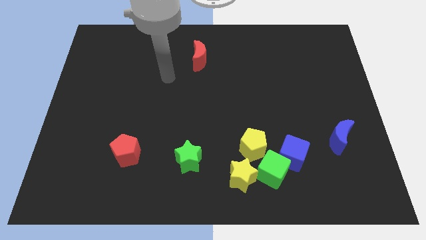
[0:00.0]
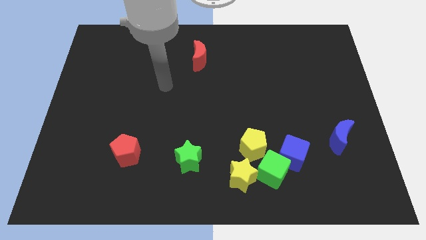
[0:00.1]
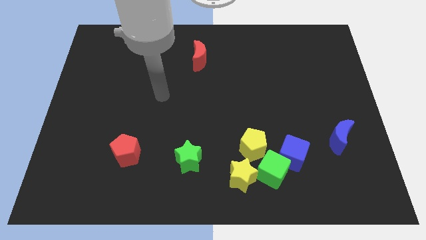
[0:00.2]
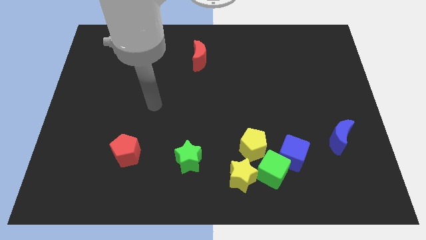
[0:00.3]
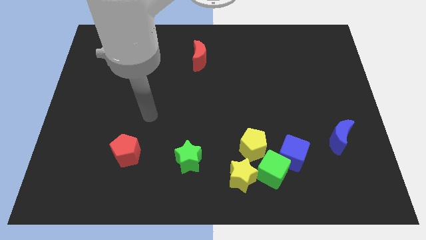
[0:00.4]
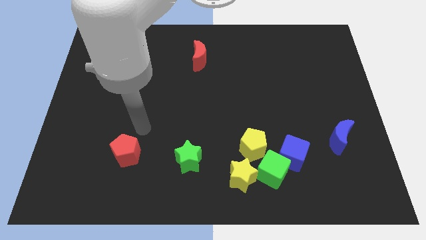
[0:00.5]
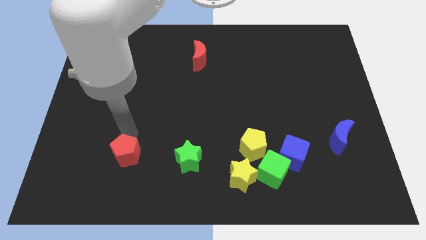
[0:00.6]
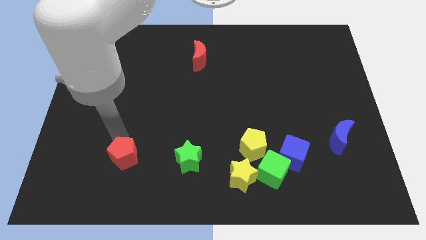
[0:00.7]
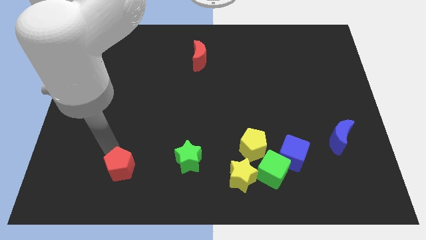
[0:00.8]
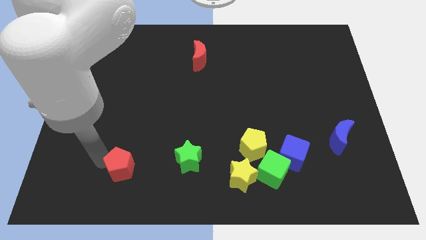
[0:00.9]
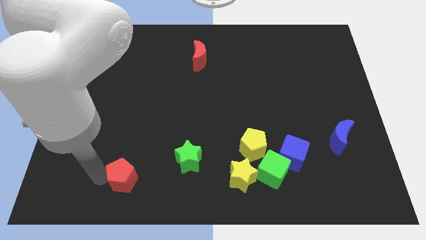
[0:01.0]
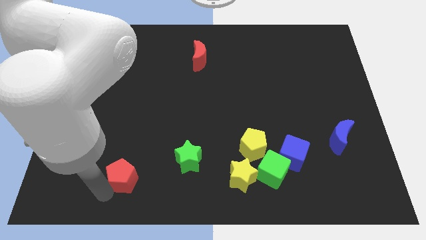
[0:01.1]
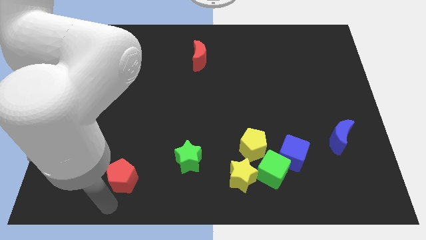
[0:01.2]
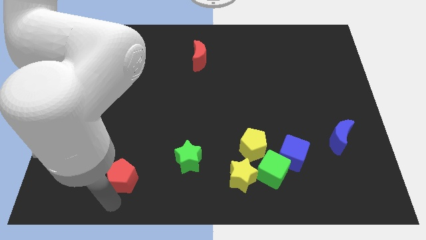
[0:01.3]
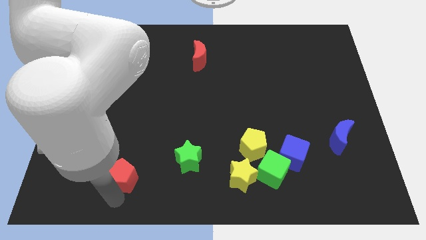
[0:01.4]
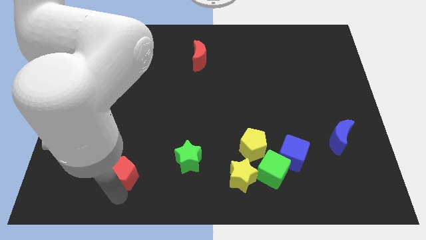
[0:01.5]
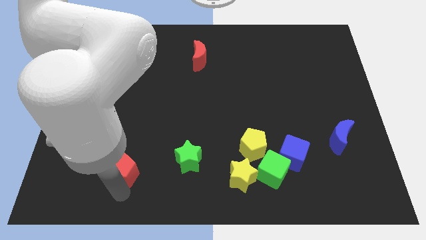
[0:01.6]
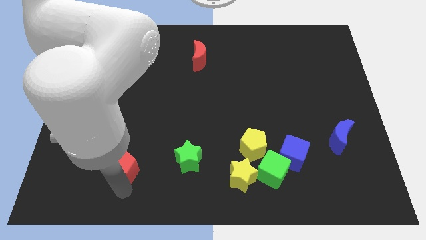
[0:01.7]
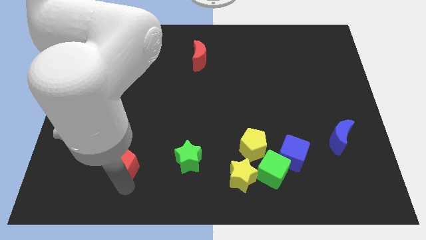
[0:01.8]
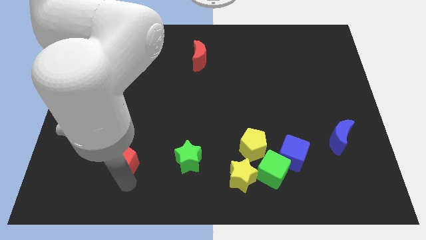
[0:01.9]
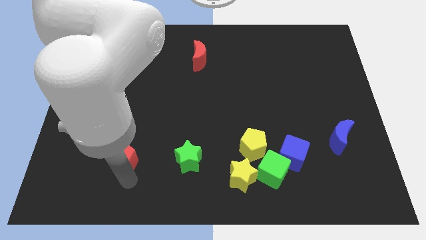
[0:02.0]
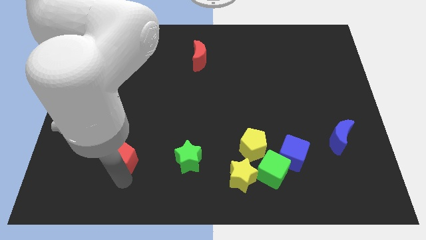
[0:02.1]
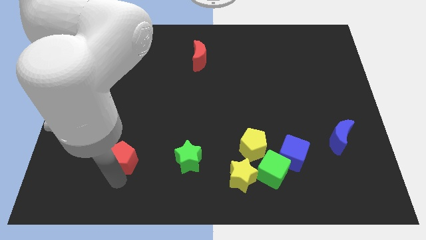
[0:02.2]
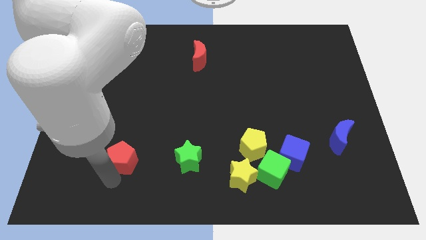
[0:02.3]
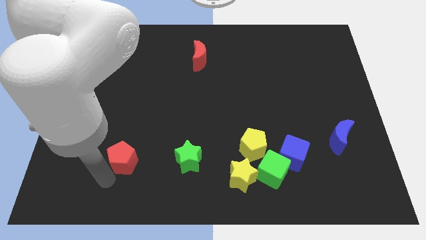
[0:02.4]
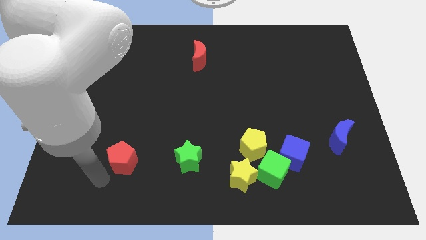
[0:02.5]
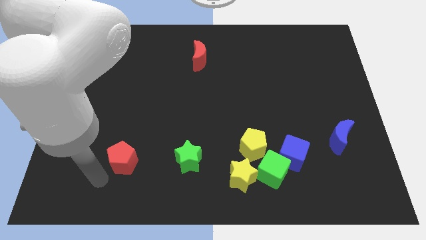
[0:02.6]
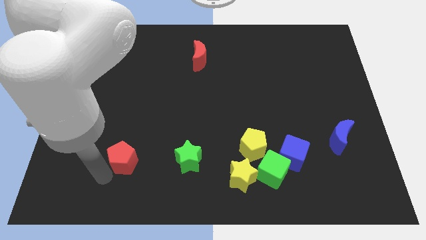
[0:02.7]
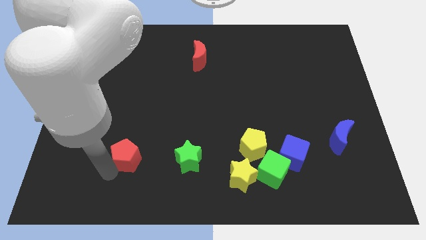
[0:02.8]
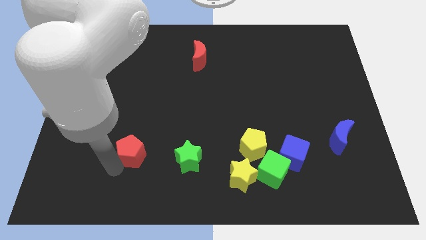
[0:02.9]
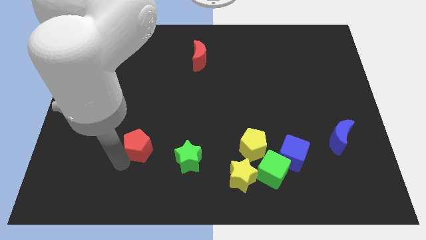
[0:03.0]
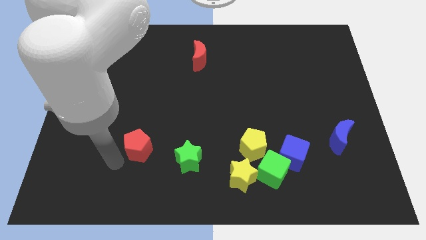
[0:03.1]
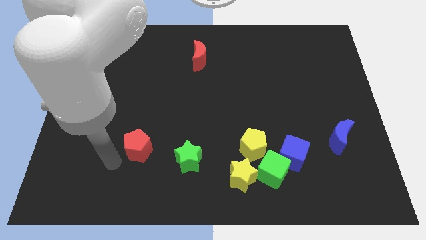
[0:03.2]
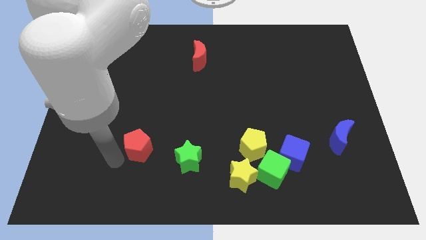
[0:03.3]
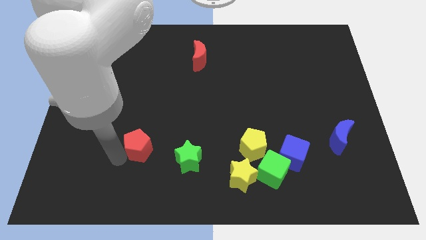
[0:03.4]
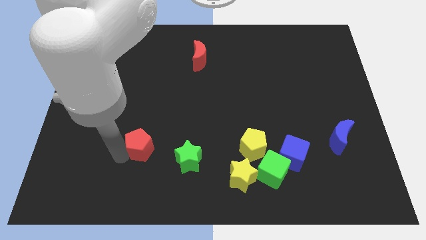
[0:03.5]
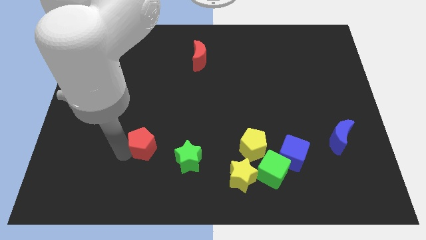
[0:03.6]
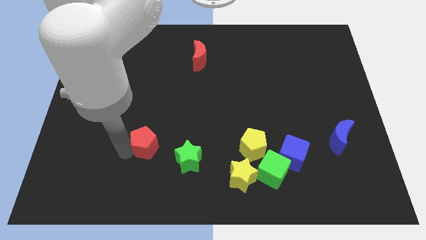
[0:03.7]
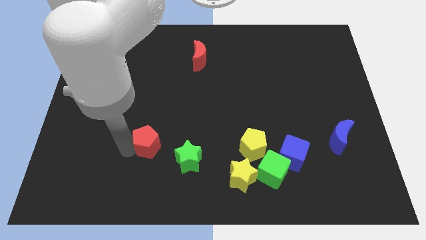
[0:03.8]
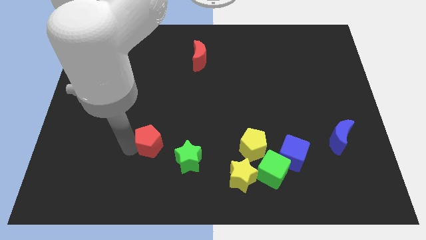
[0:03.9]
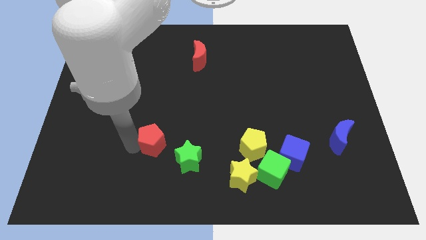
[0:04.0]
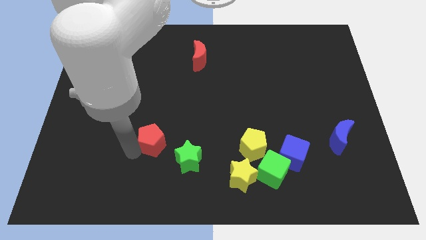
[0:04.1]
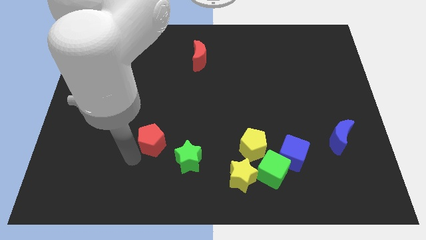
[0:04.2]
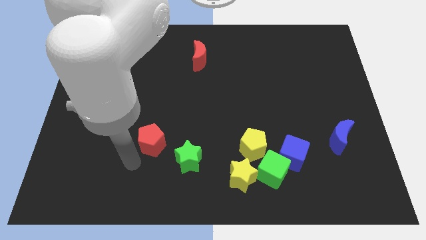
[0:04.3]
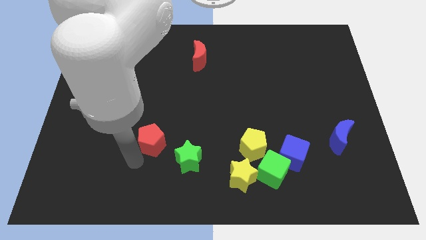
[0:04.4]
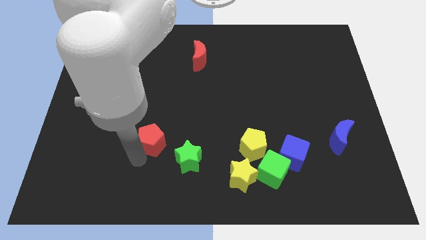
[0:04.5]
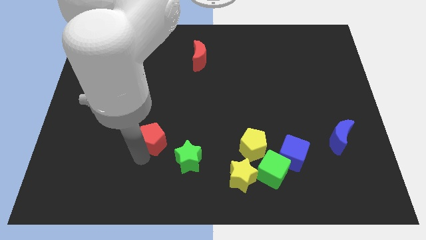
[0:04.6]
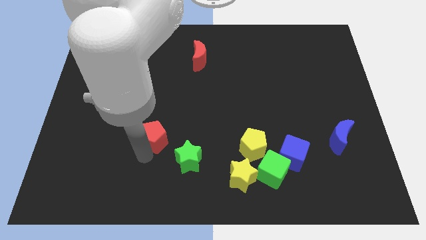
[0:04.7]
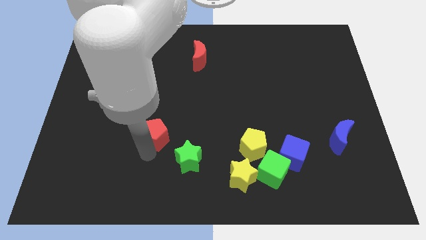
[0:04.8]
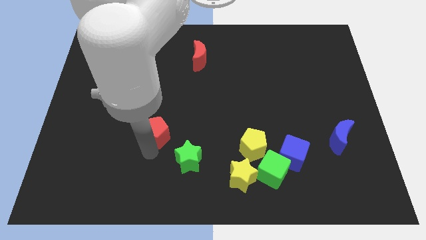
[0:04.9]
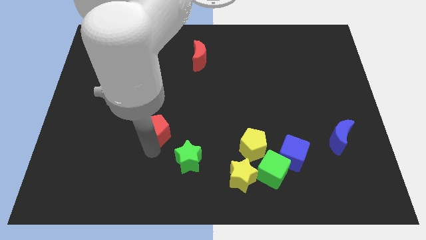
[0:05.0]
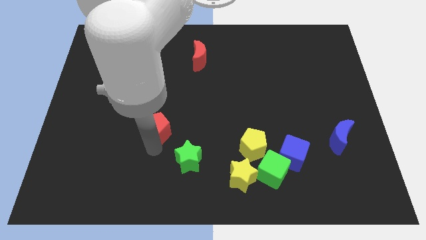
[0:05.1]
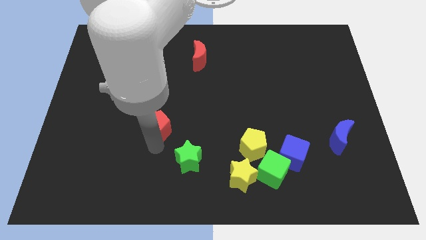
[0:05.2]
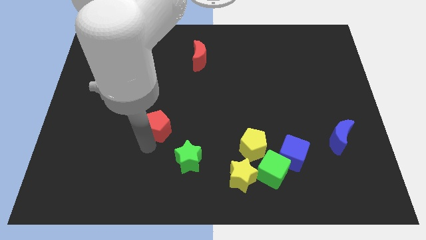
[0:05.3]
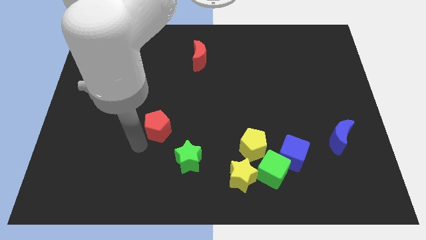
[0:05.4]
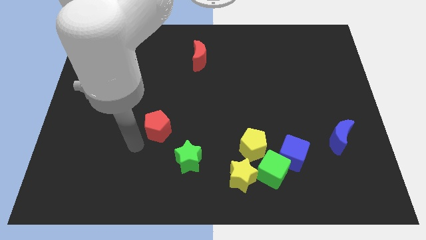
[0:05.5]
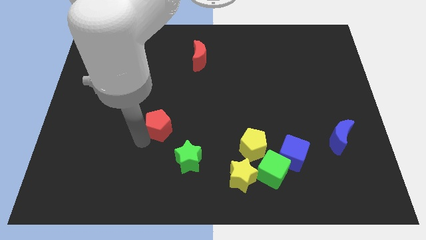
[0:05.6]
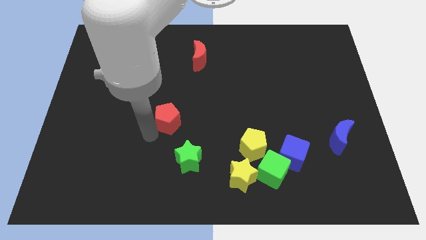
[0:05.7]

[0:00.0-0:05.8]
push the red pentagon to the center of the board

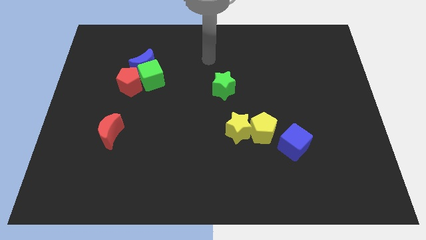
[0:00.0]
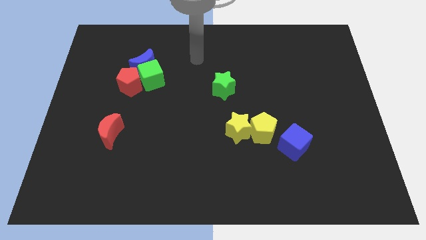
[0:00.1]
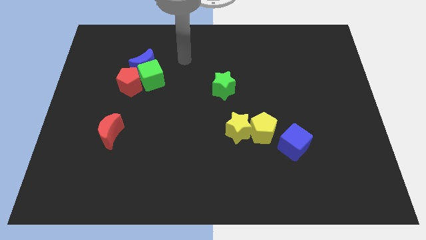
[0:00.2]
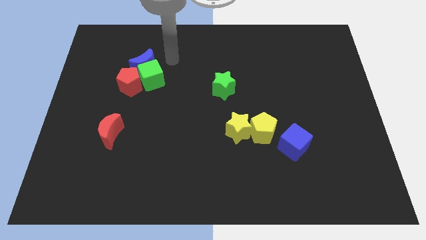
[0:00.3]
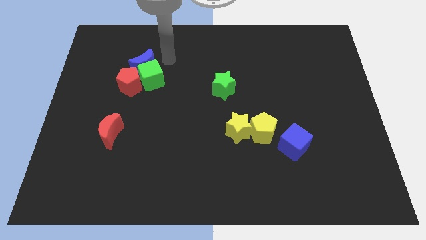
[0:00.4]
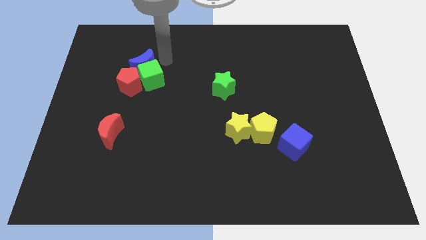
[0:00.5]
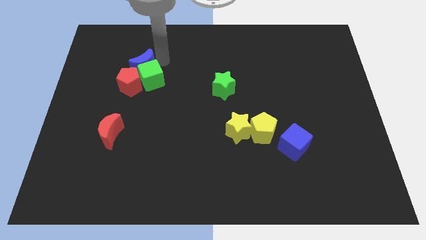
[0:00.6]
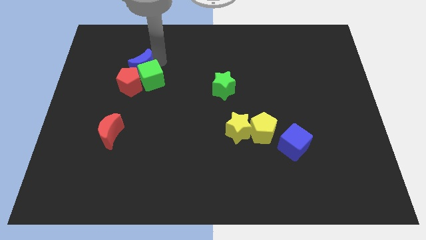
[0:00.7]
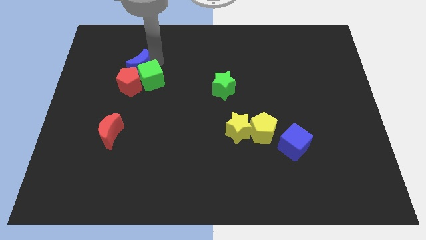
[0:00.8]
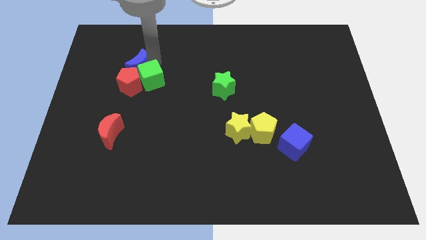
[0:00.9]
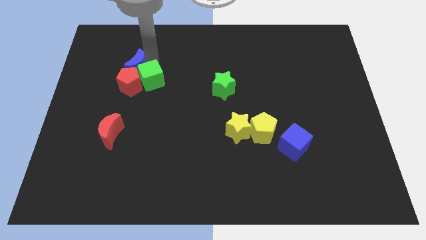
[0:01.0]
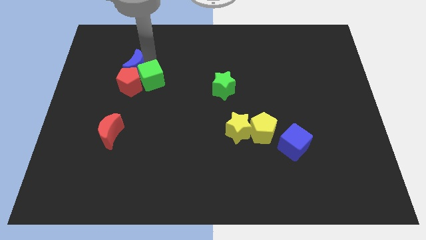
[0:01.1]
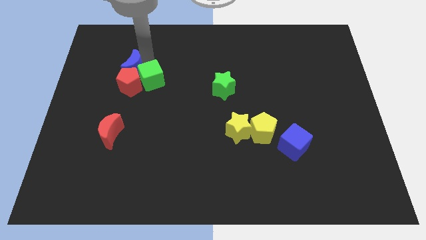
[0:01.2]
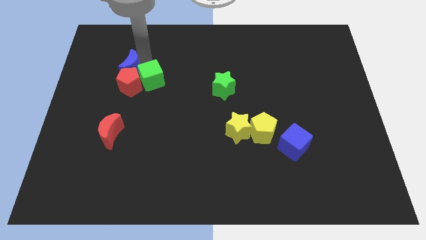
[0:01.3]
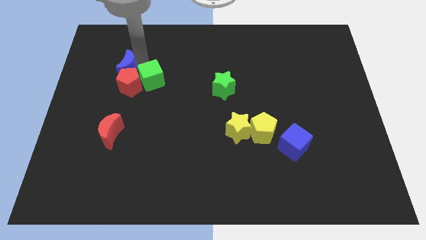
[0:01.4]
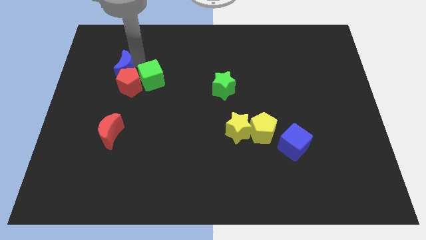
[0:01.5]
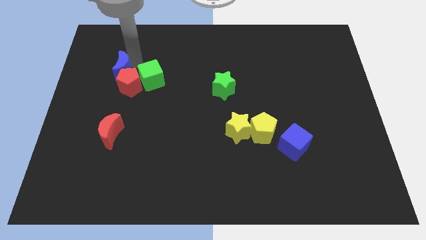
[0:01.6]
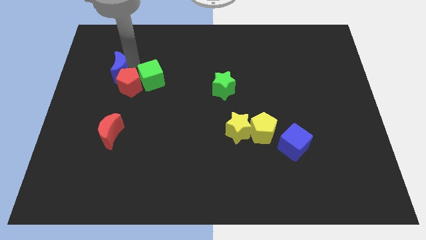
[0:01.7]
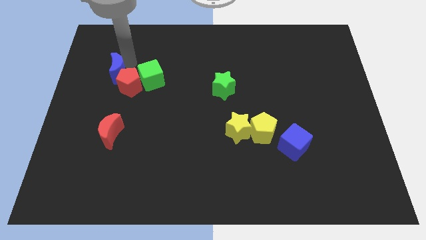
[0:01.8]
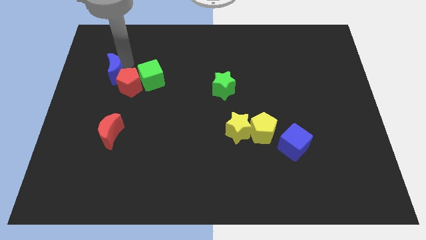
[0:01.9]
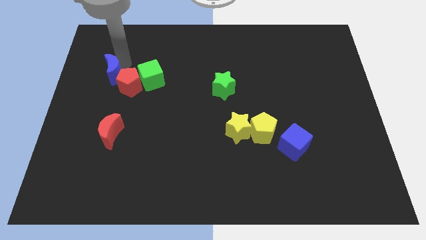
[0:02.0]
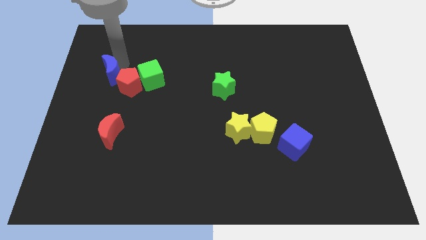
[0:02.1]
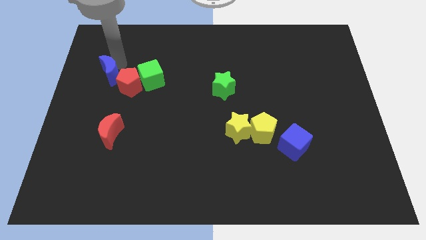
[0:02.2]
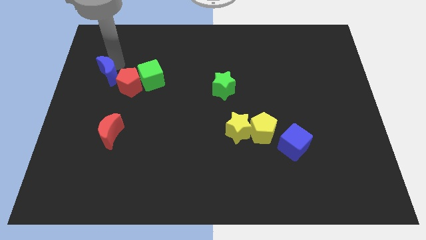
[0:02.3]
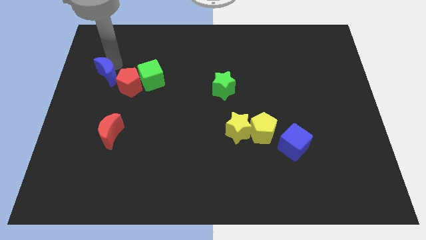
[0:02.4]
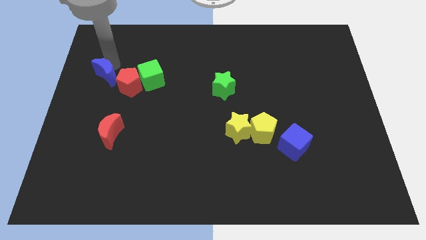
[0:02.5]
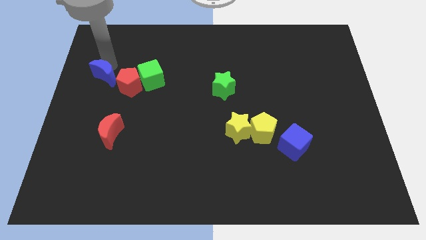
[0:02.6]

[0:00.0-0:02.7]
slide the blue moon to the center left
